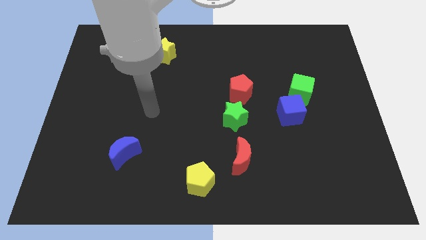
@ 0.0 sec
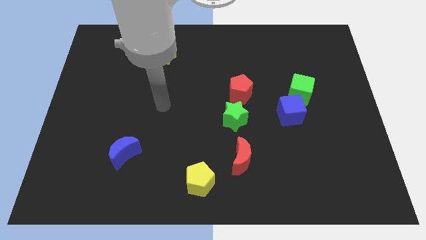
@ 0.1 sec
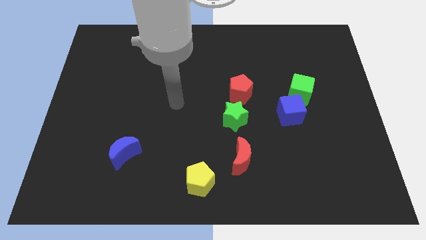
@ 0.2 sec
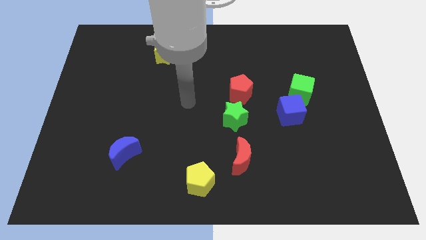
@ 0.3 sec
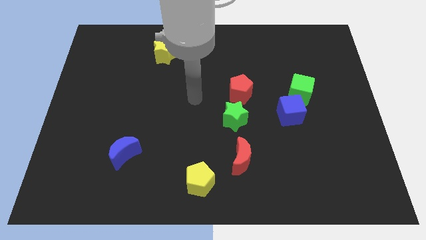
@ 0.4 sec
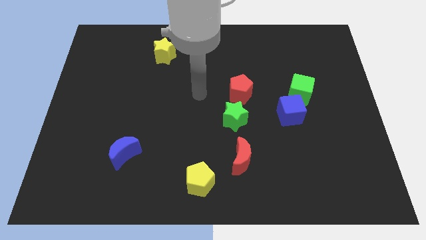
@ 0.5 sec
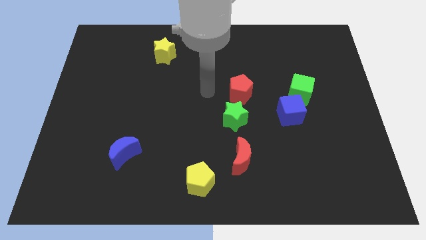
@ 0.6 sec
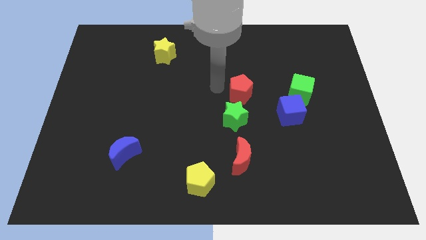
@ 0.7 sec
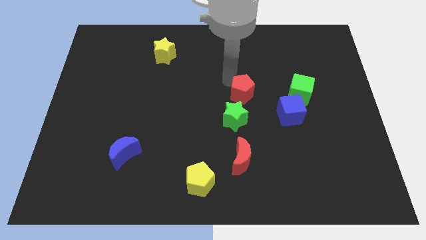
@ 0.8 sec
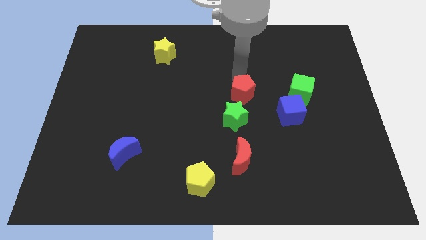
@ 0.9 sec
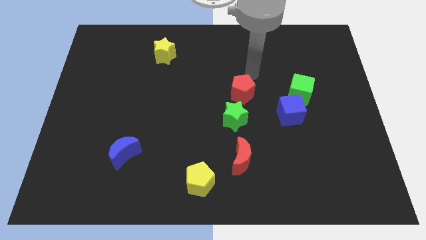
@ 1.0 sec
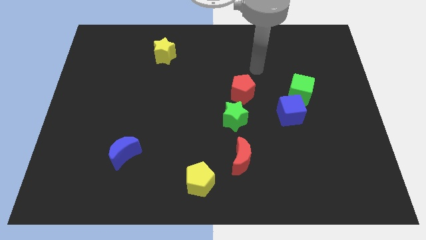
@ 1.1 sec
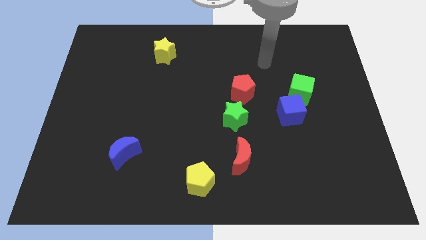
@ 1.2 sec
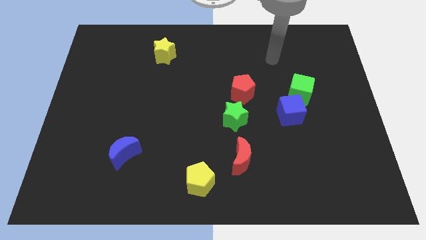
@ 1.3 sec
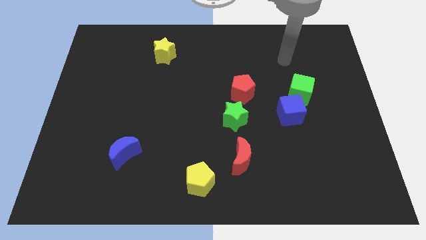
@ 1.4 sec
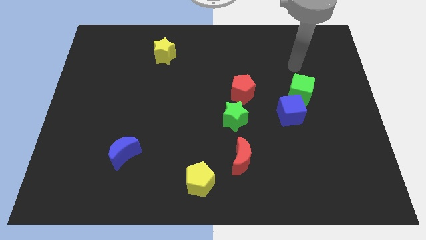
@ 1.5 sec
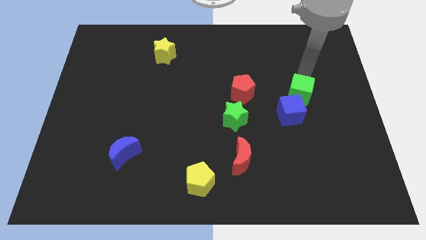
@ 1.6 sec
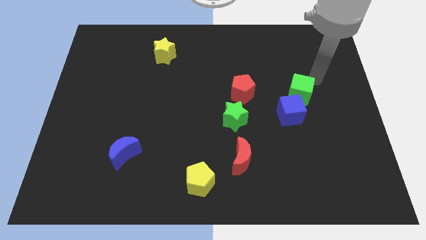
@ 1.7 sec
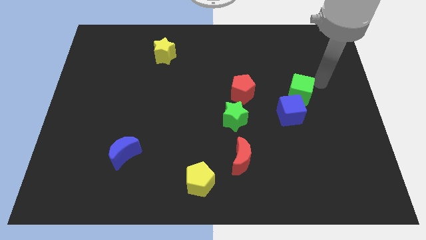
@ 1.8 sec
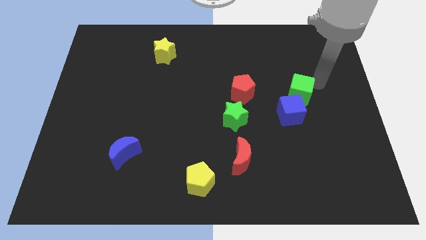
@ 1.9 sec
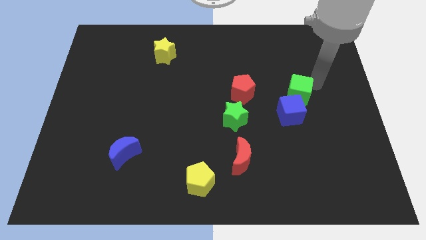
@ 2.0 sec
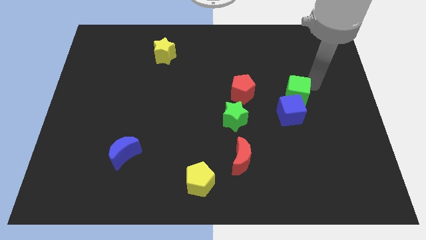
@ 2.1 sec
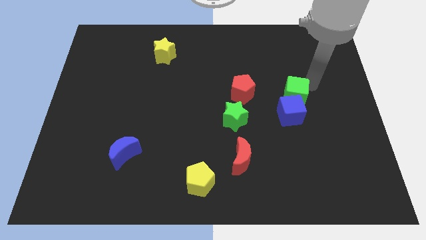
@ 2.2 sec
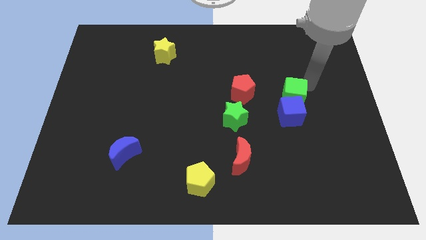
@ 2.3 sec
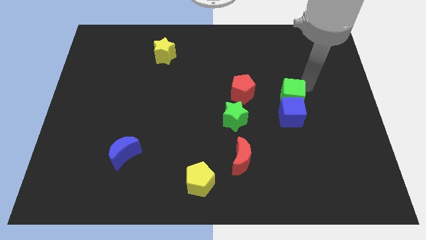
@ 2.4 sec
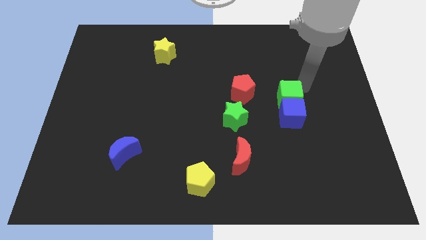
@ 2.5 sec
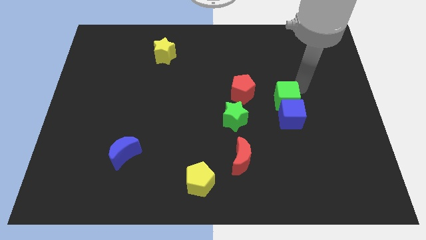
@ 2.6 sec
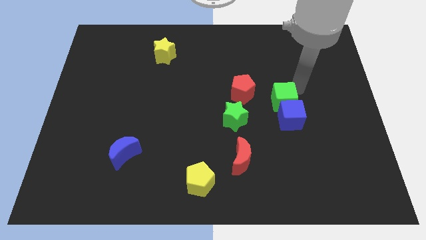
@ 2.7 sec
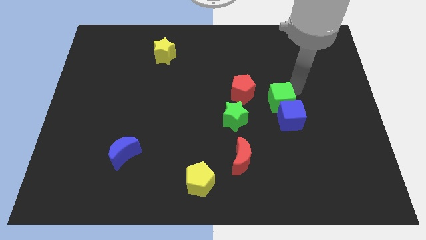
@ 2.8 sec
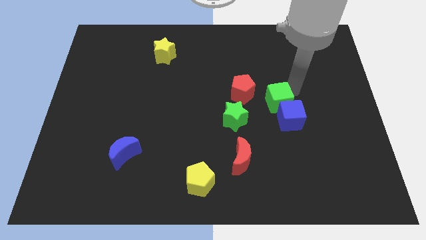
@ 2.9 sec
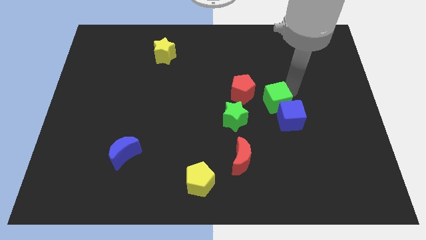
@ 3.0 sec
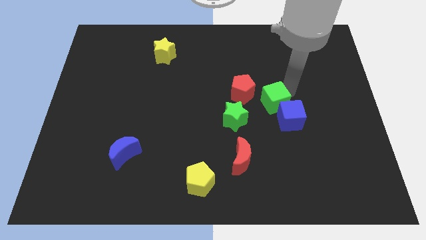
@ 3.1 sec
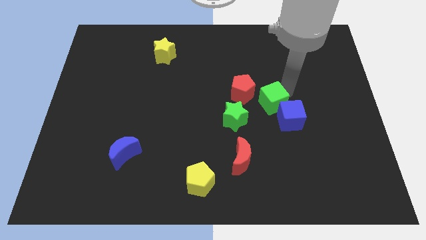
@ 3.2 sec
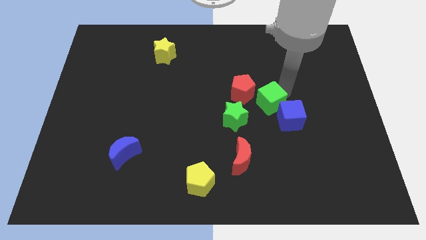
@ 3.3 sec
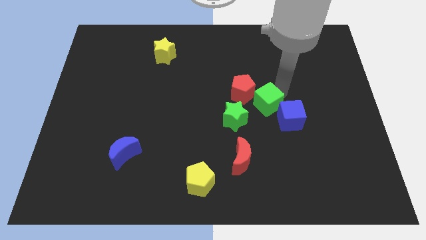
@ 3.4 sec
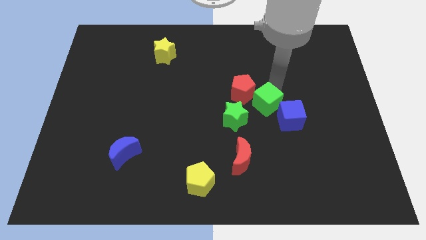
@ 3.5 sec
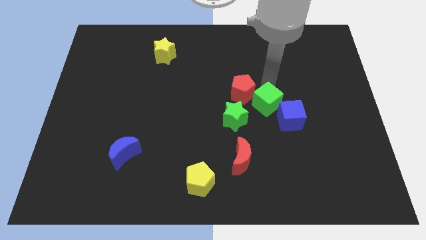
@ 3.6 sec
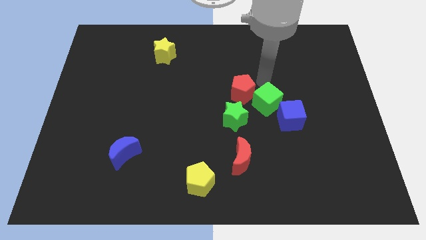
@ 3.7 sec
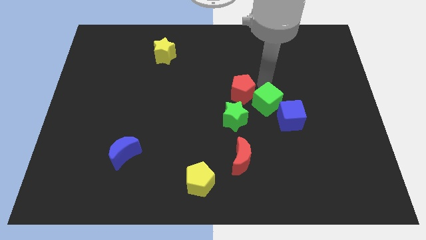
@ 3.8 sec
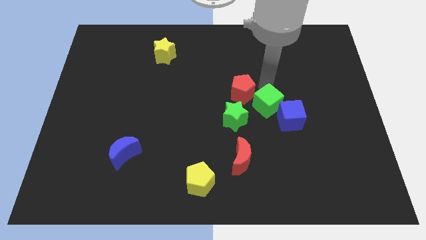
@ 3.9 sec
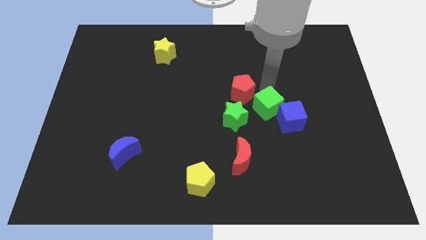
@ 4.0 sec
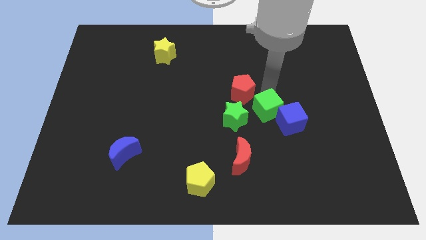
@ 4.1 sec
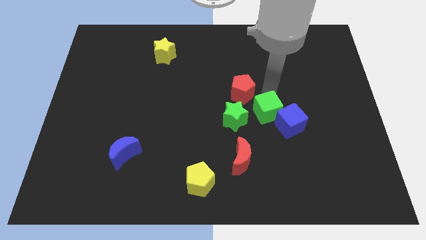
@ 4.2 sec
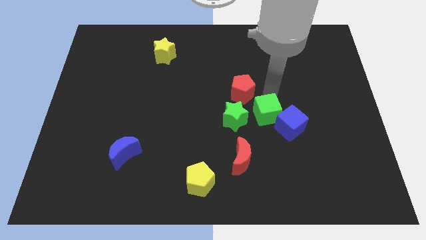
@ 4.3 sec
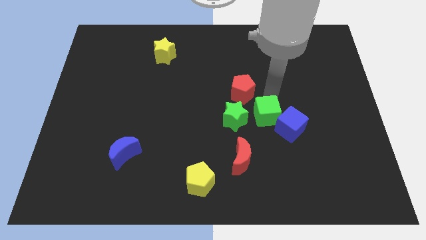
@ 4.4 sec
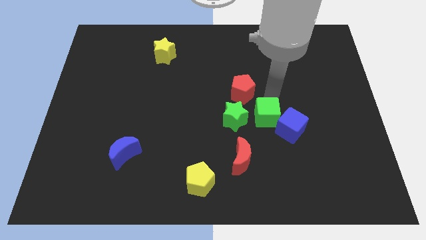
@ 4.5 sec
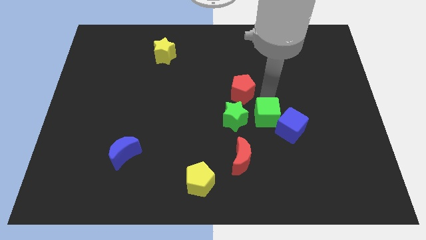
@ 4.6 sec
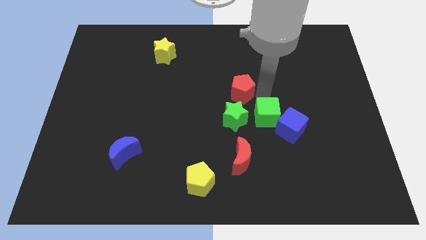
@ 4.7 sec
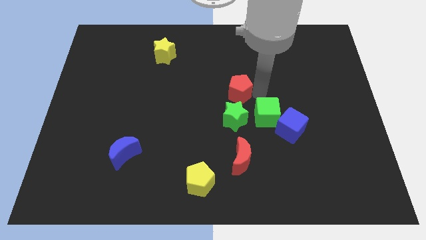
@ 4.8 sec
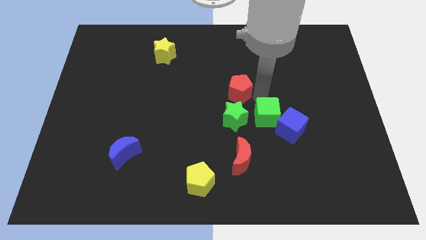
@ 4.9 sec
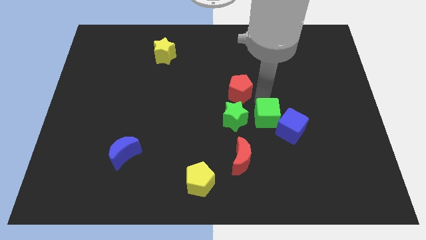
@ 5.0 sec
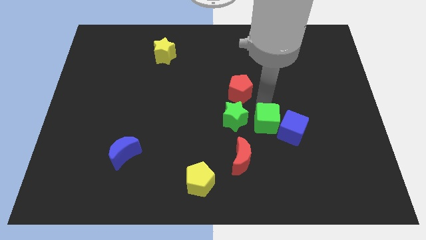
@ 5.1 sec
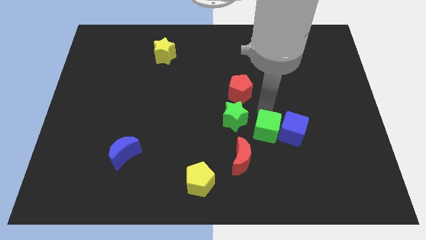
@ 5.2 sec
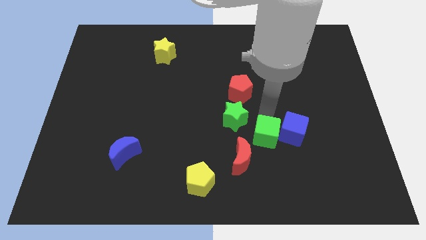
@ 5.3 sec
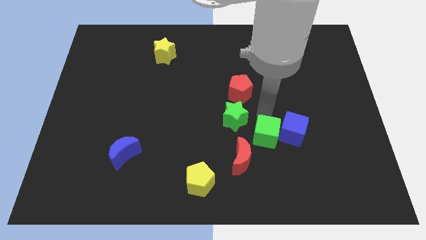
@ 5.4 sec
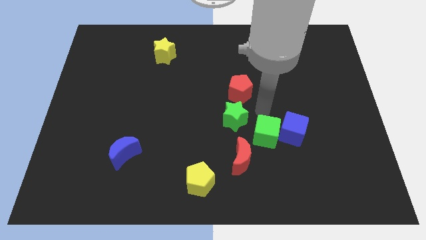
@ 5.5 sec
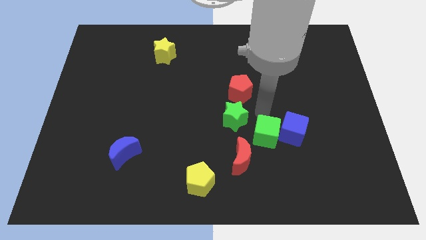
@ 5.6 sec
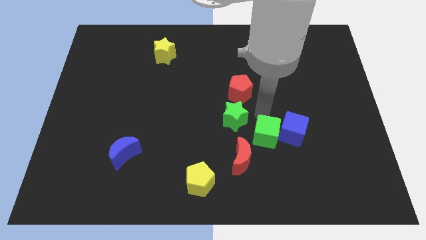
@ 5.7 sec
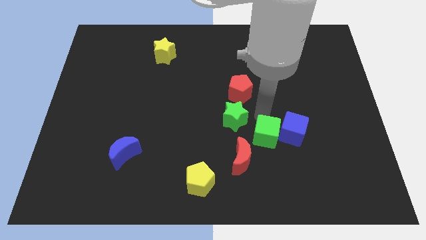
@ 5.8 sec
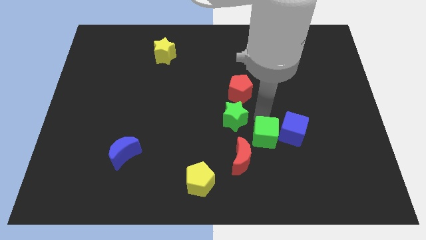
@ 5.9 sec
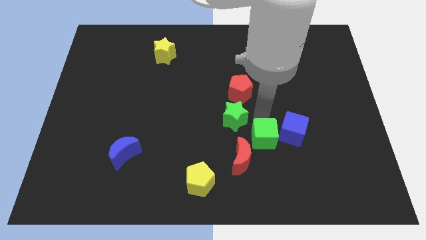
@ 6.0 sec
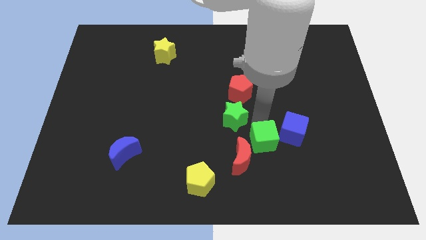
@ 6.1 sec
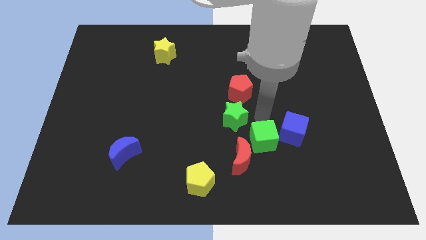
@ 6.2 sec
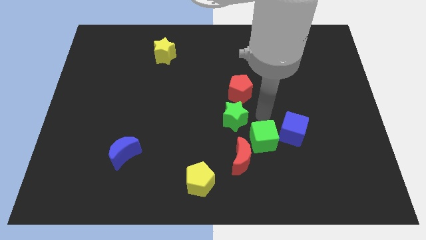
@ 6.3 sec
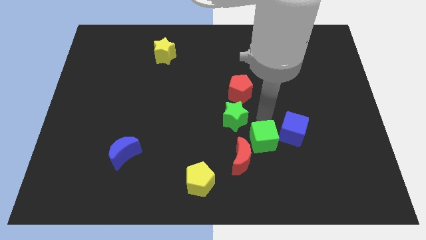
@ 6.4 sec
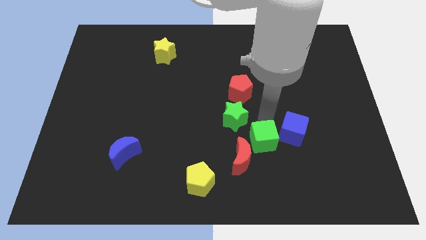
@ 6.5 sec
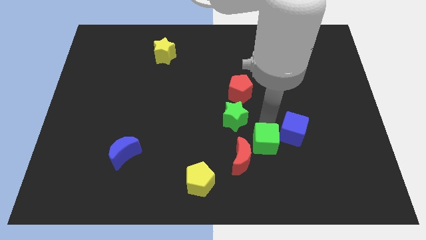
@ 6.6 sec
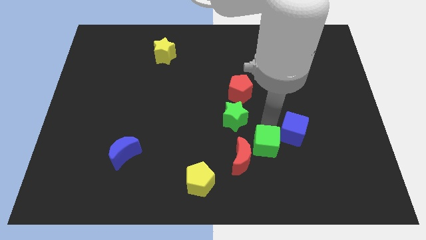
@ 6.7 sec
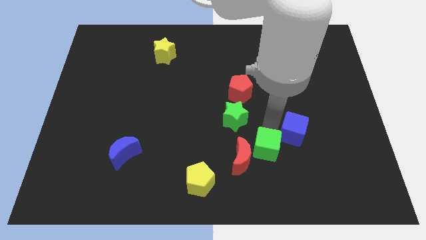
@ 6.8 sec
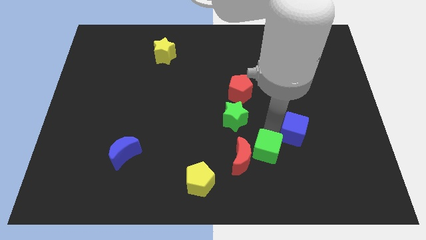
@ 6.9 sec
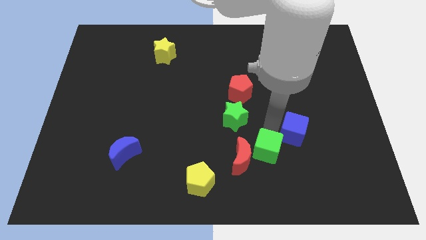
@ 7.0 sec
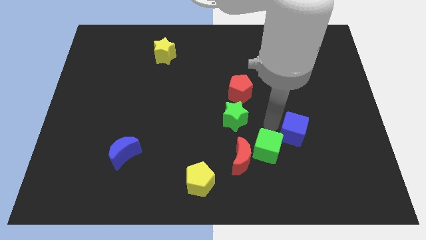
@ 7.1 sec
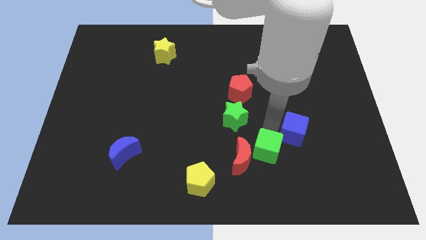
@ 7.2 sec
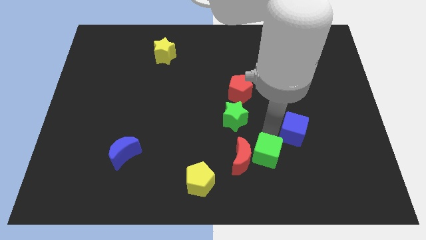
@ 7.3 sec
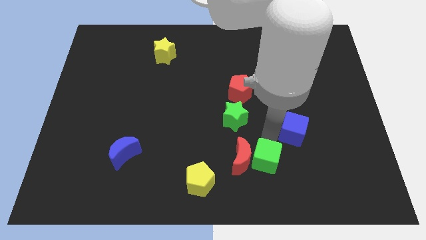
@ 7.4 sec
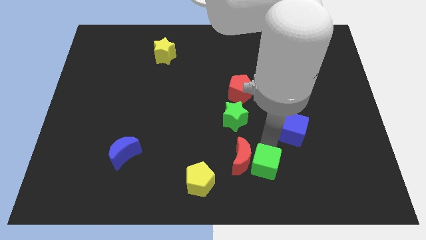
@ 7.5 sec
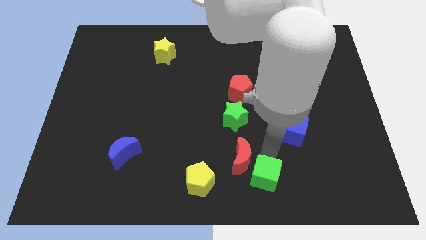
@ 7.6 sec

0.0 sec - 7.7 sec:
slide the green cube to the bottom side
